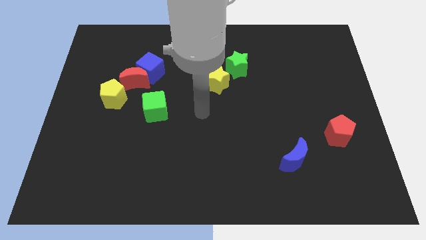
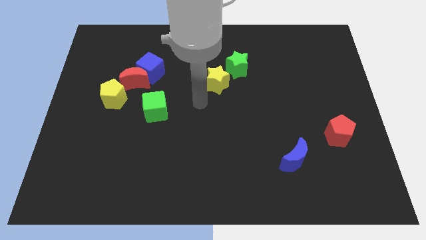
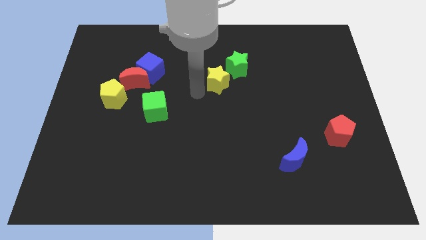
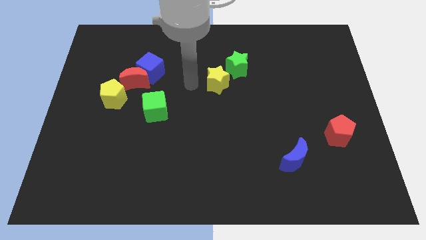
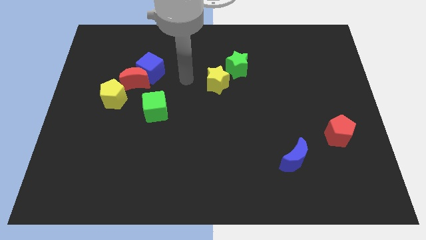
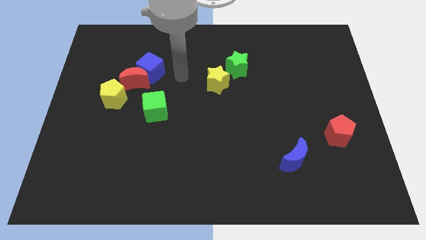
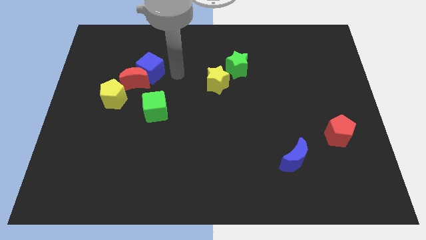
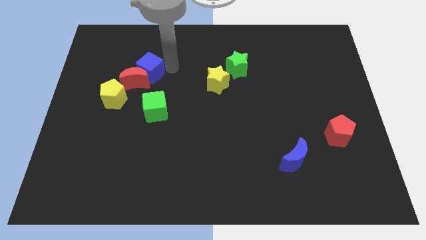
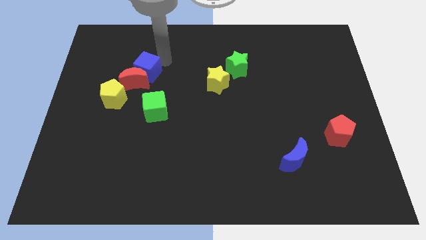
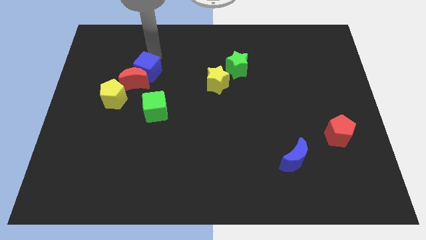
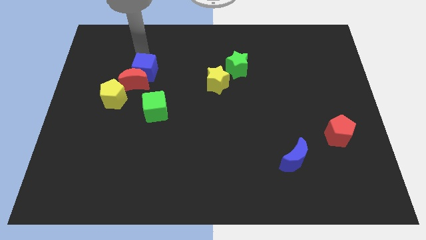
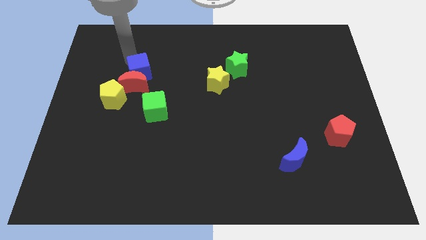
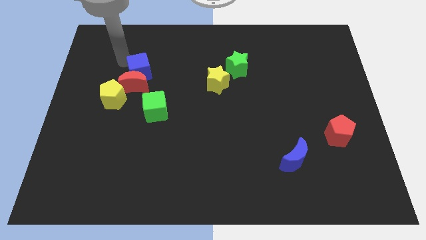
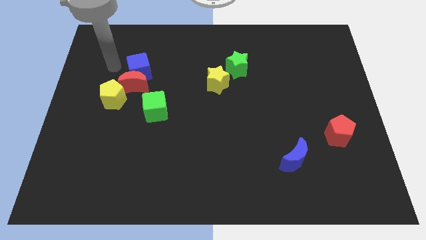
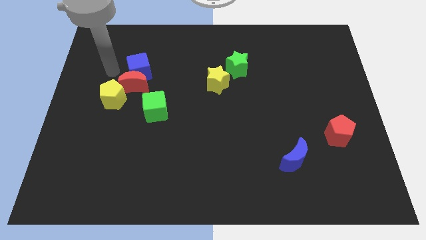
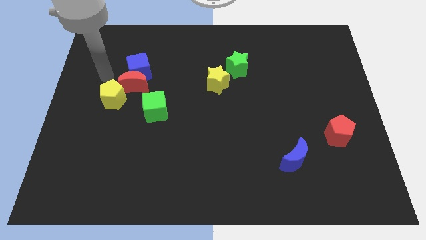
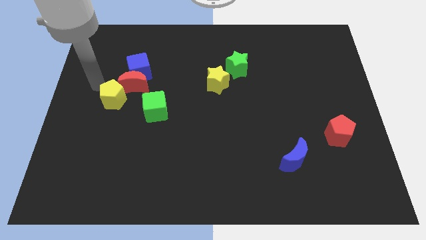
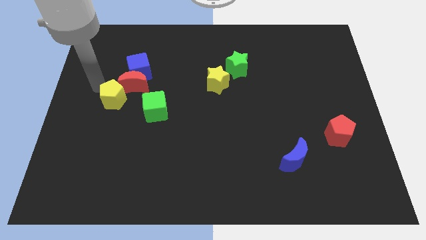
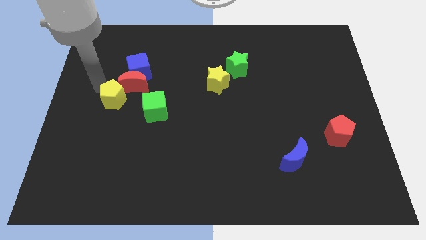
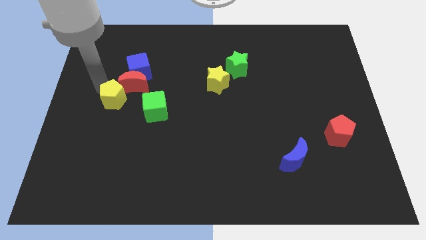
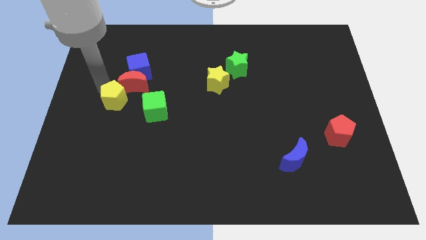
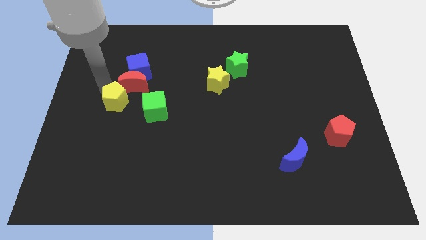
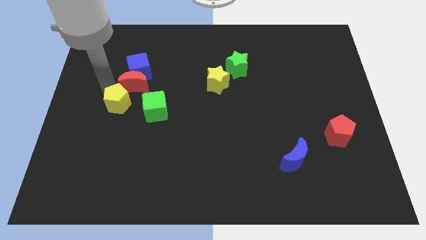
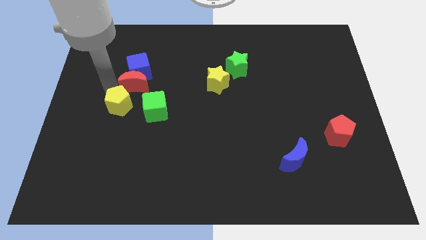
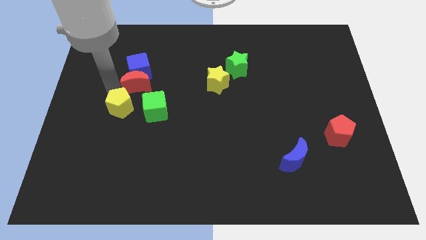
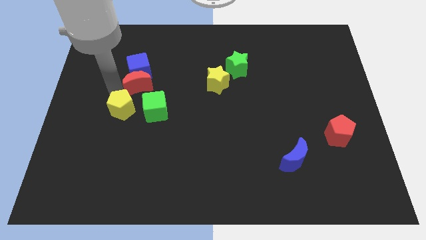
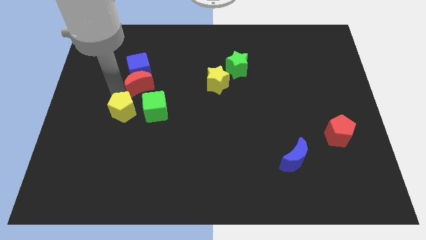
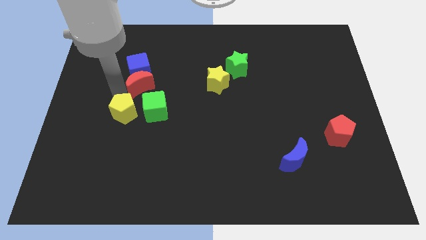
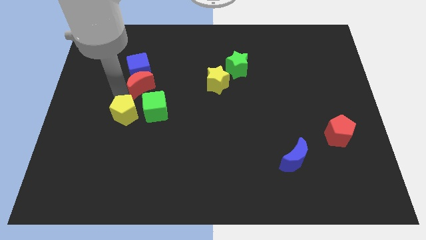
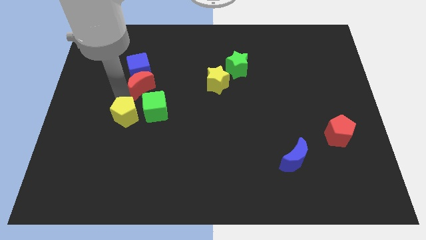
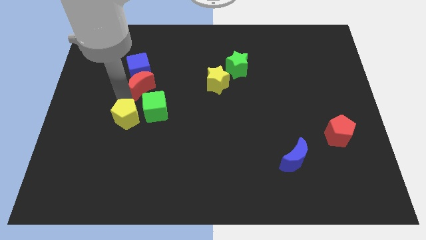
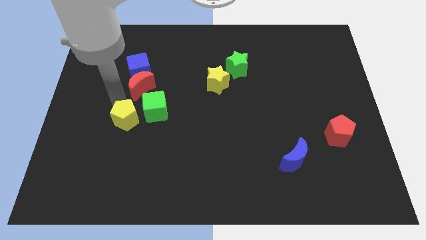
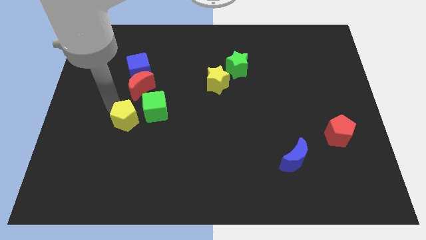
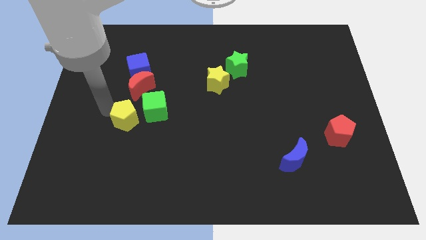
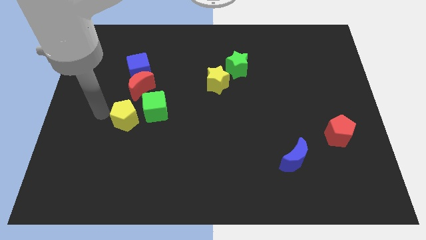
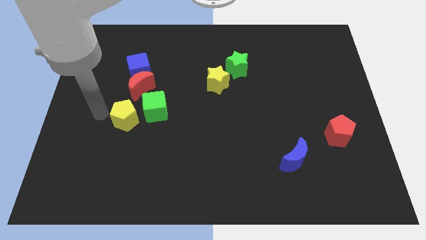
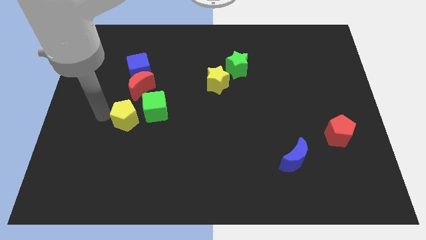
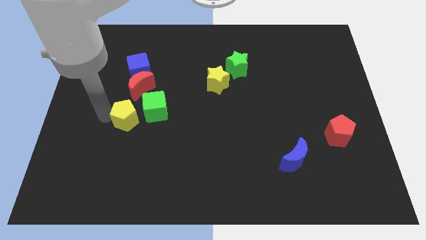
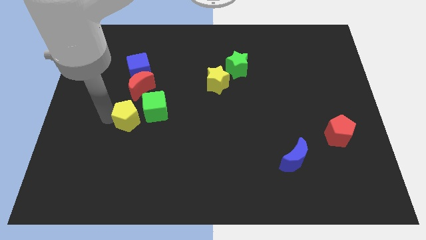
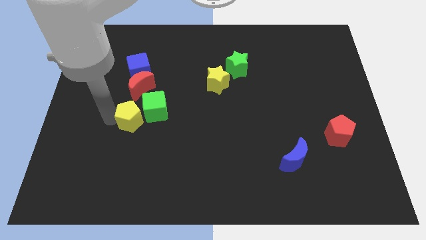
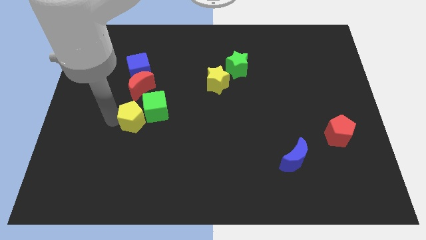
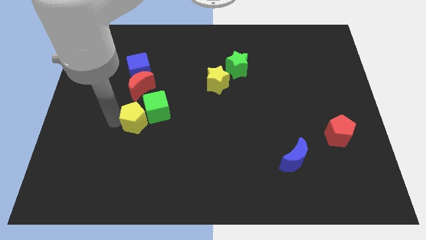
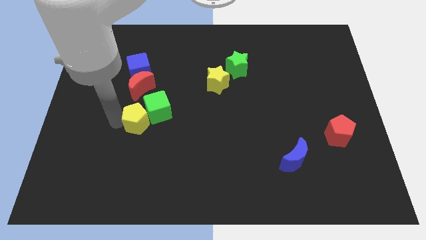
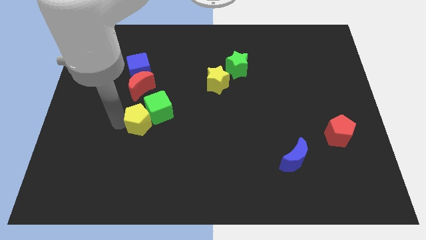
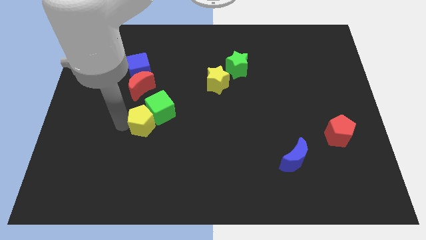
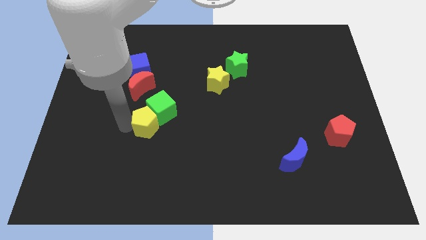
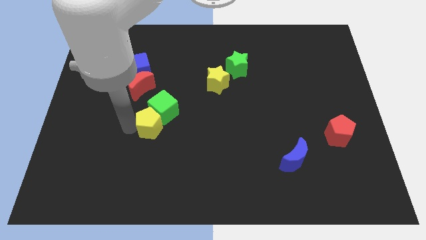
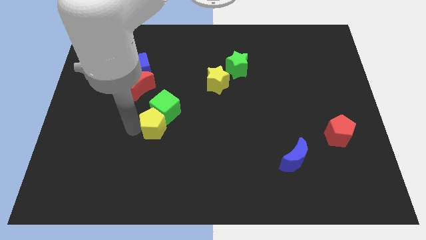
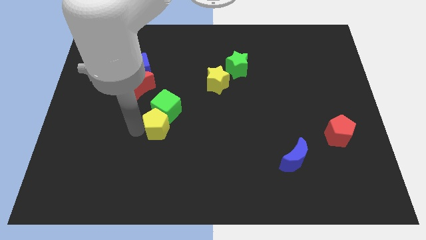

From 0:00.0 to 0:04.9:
put the yellow pentagon to the bottom right side of the green cube

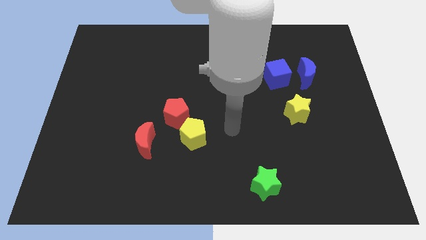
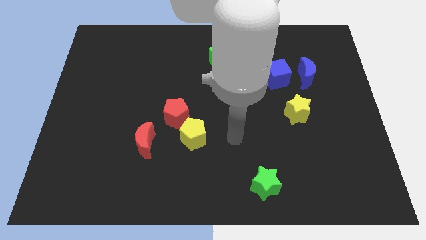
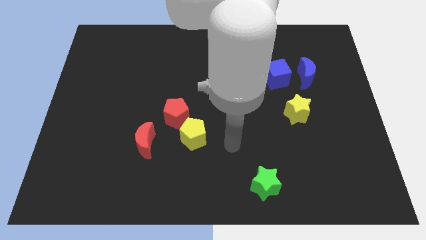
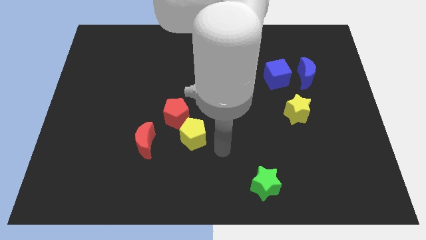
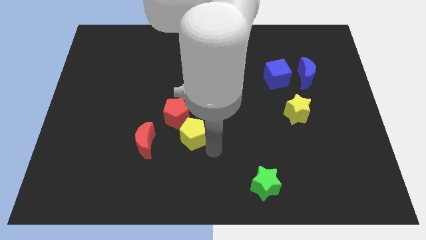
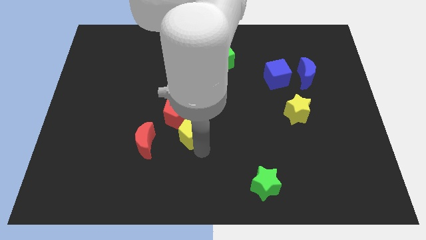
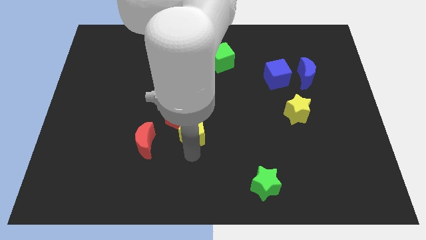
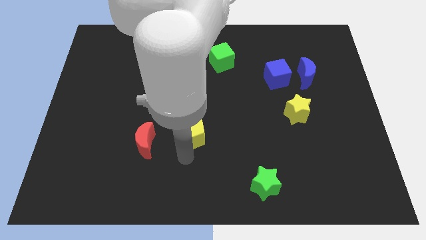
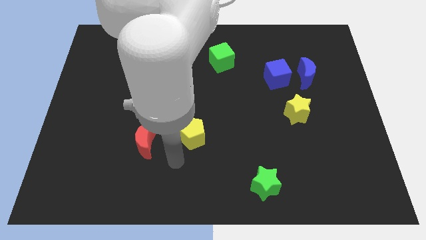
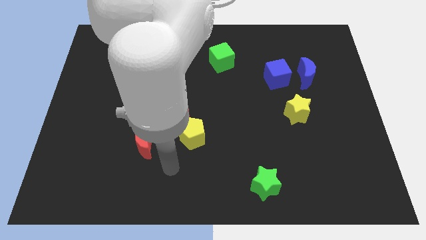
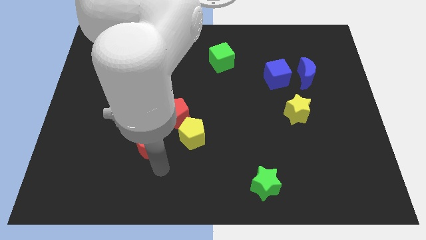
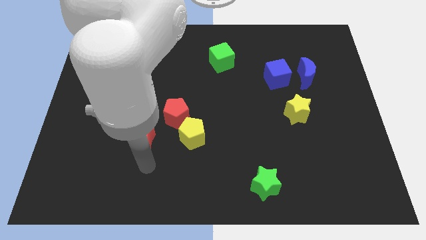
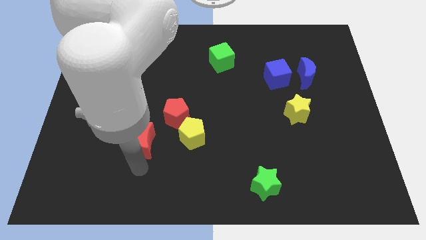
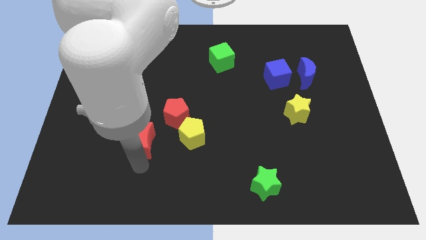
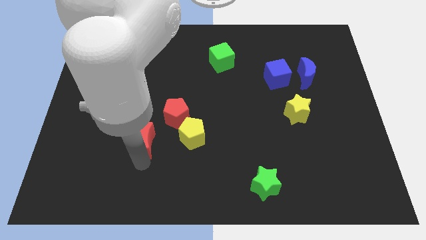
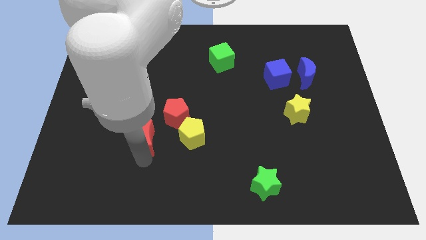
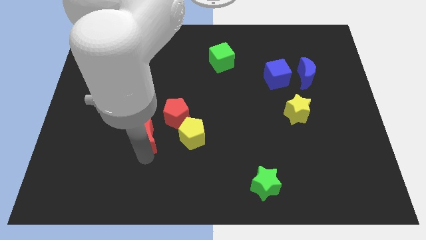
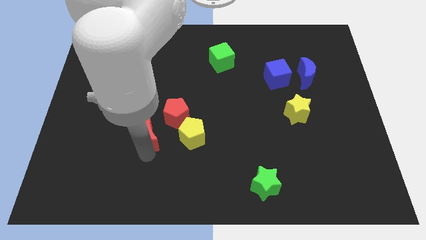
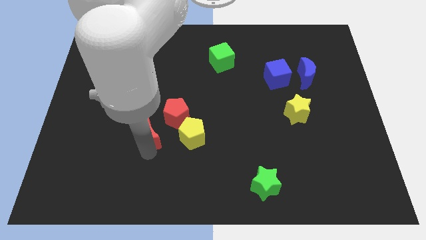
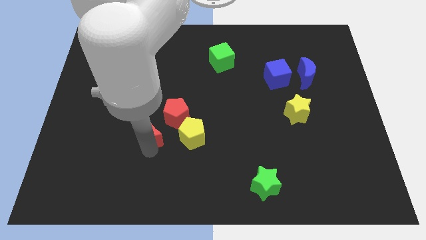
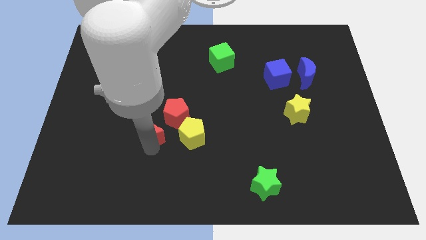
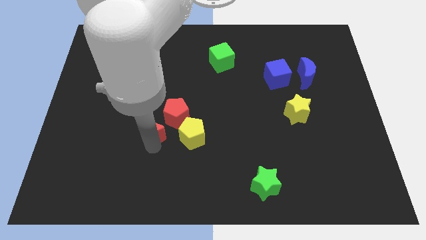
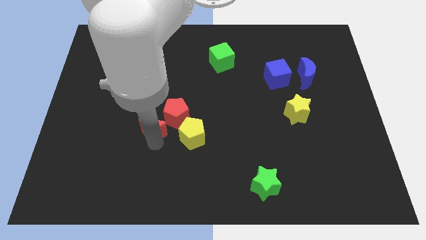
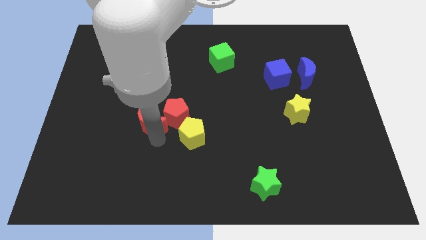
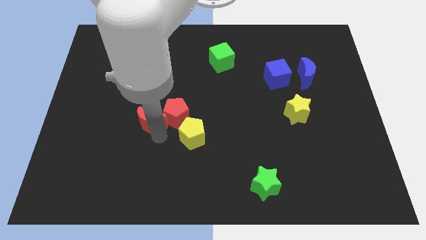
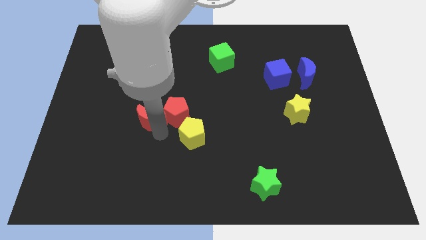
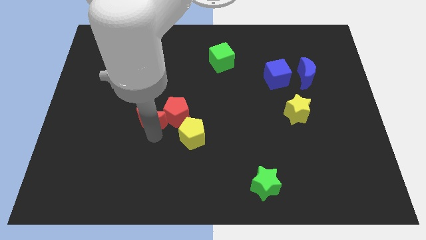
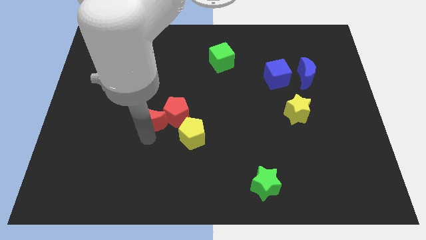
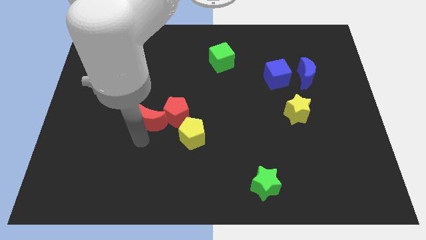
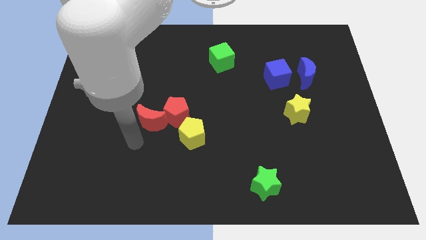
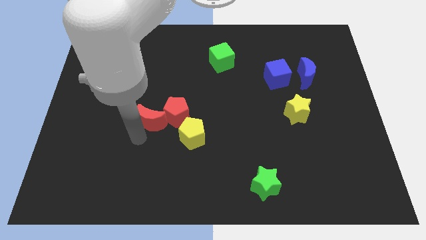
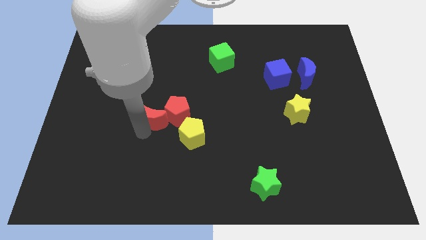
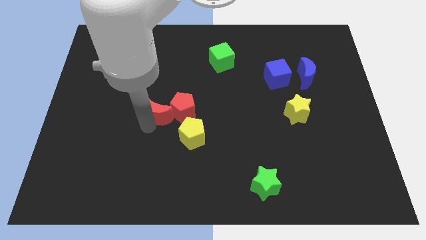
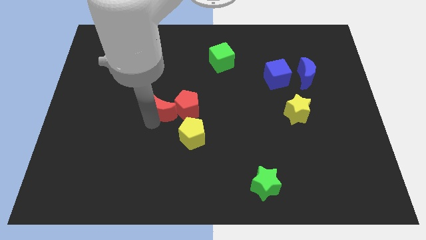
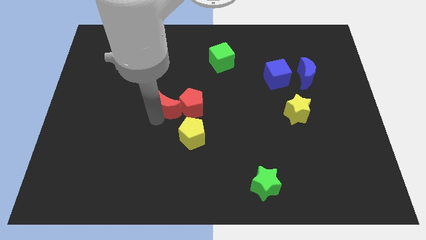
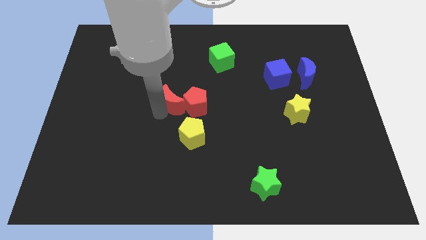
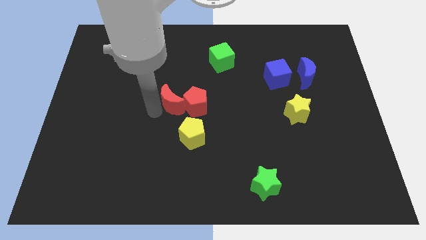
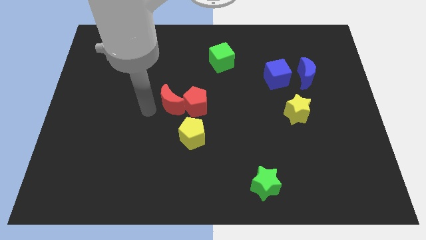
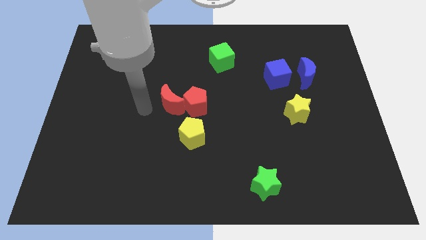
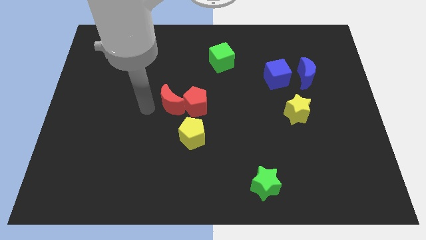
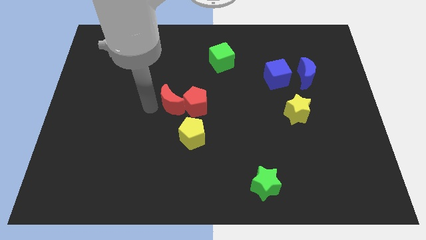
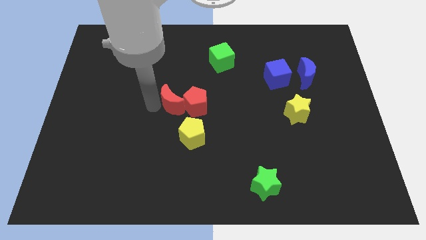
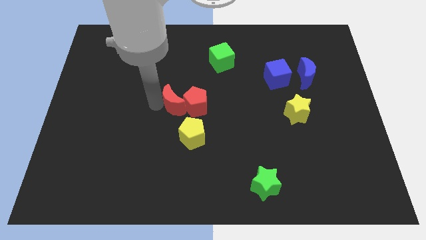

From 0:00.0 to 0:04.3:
push the red moon to the top of the yellow pentagon
